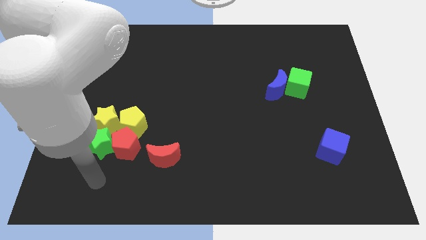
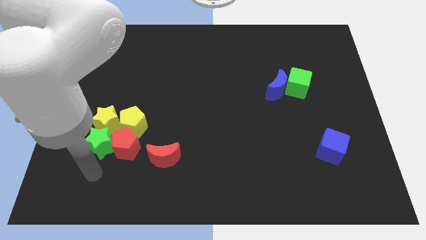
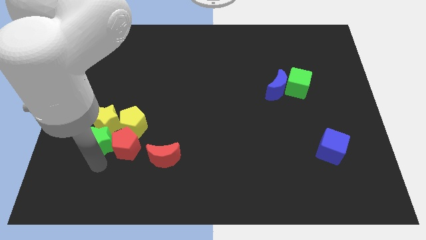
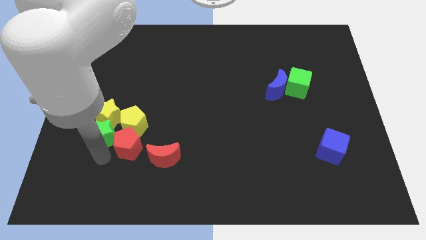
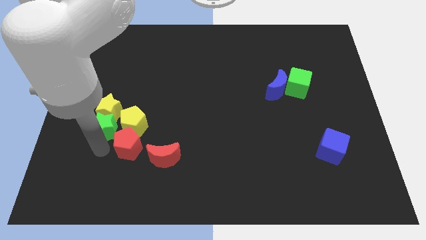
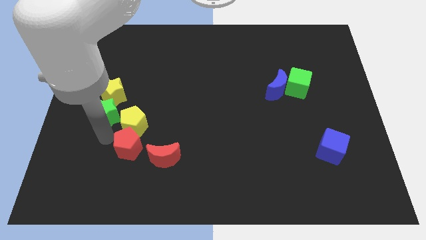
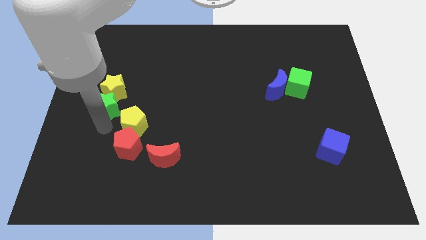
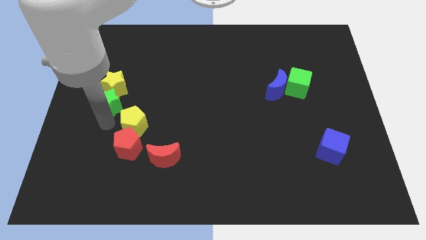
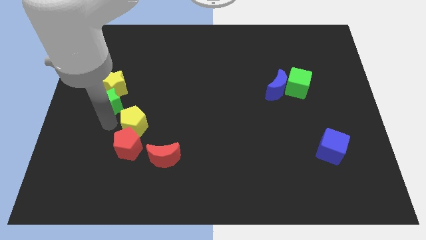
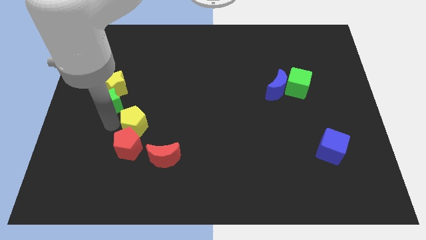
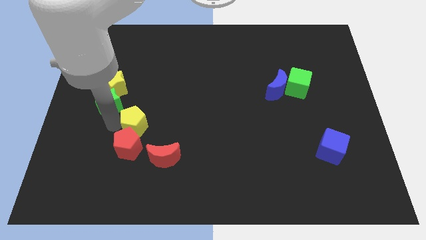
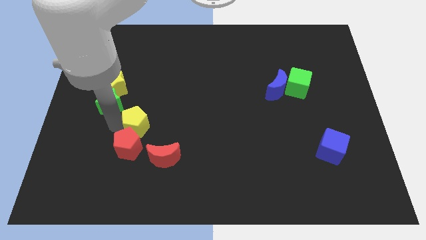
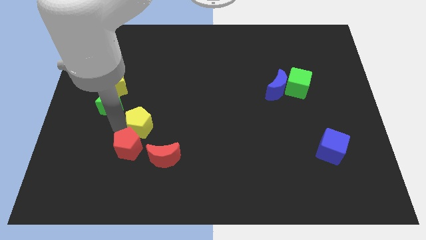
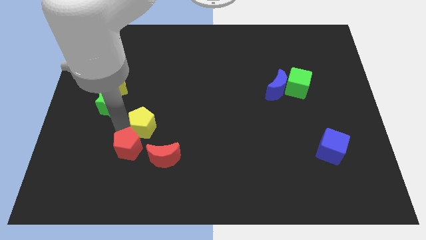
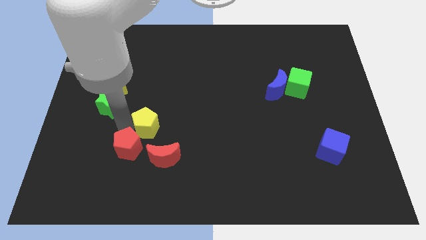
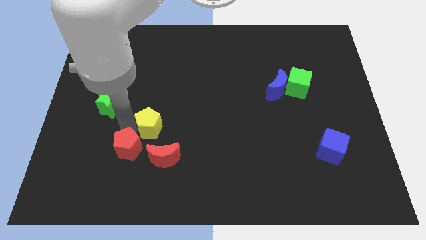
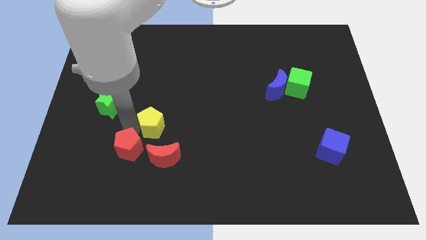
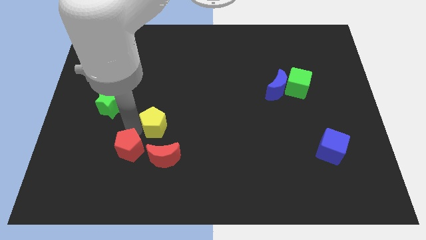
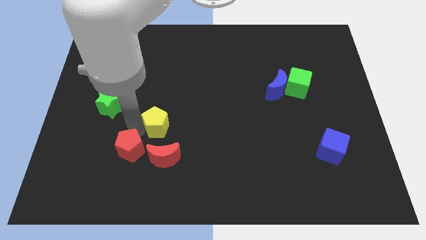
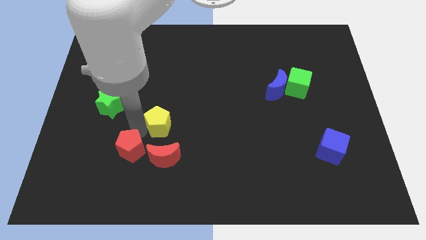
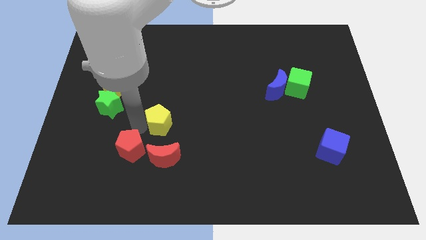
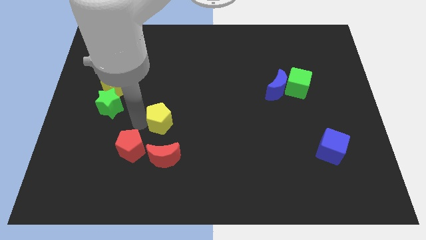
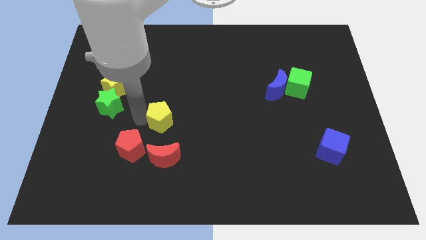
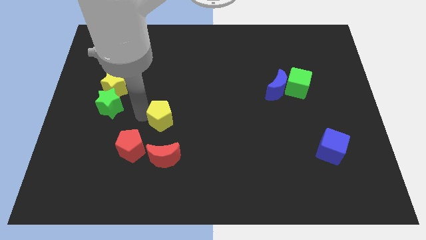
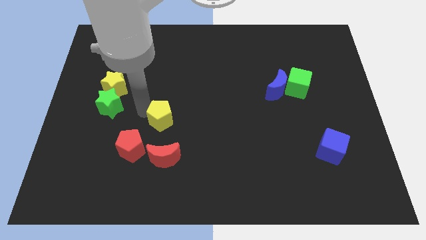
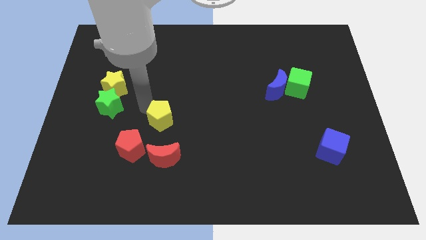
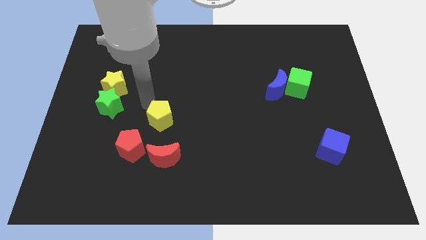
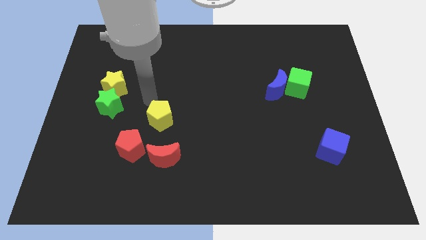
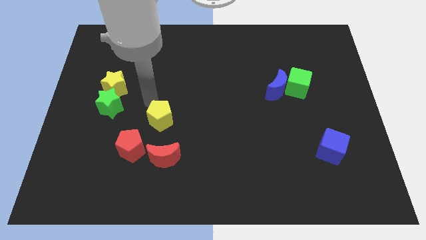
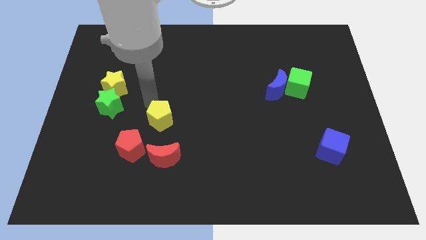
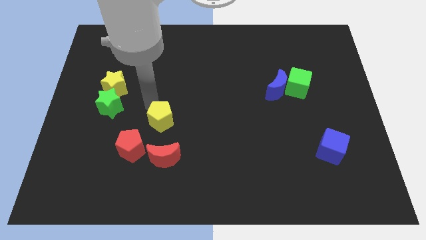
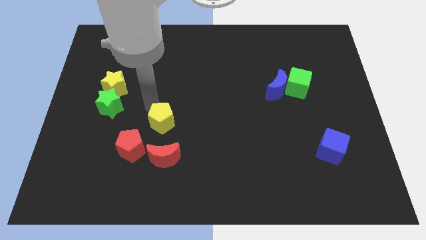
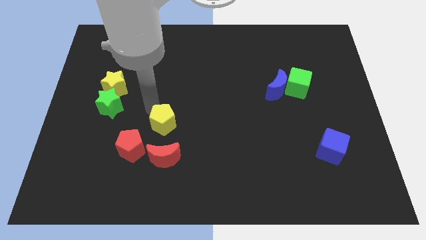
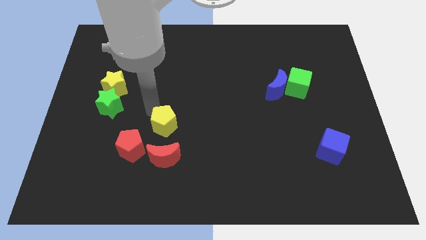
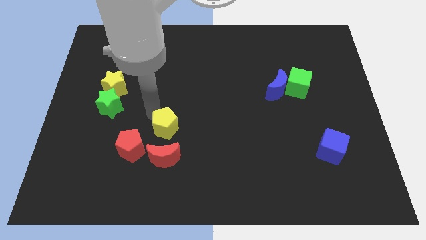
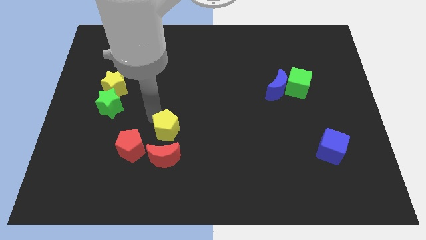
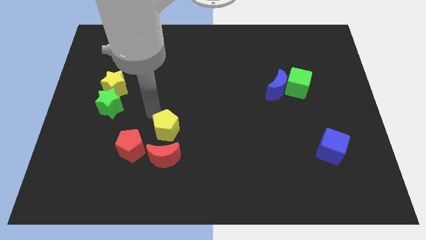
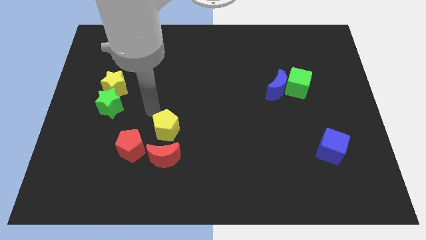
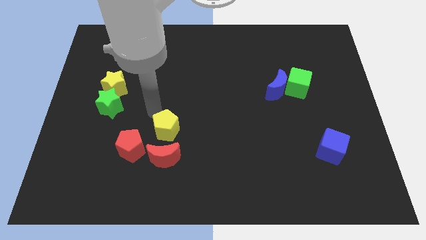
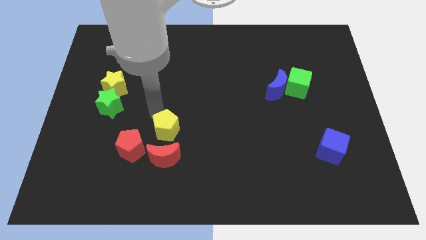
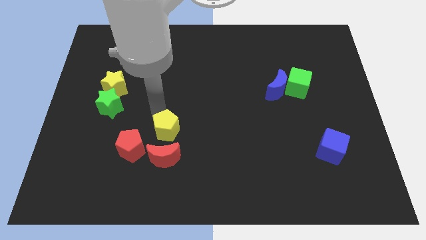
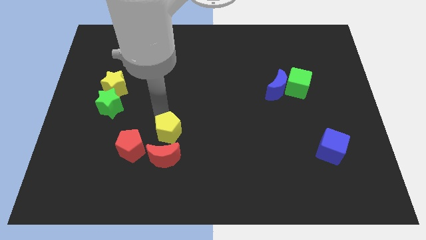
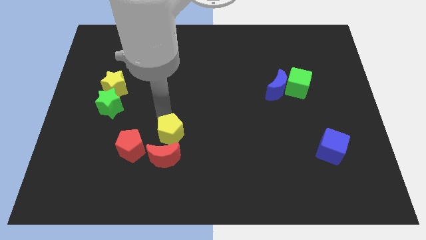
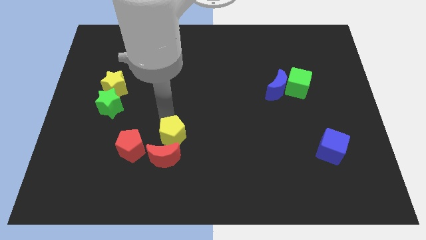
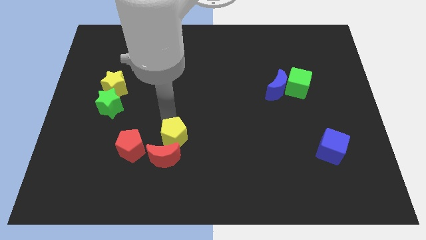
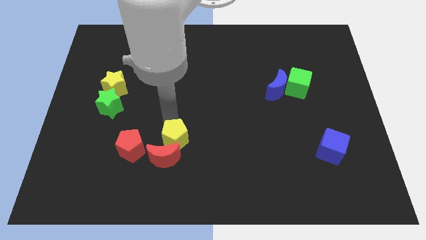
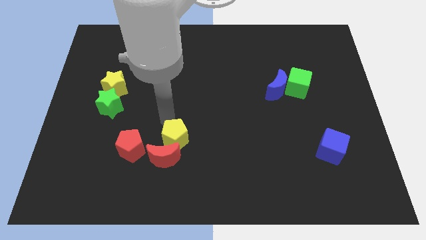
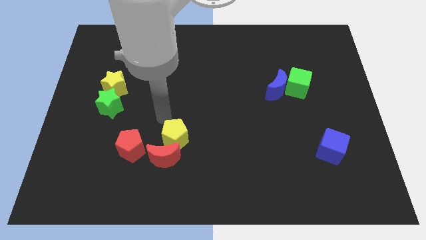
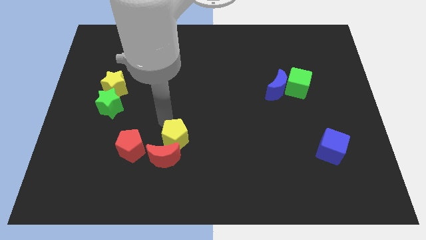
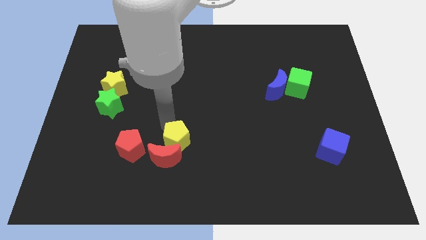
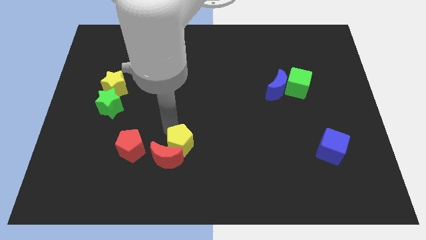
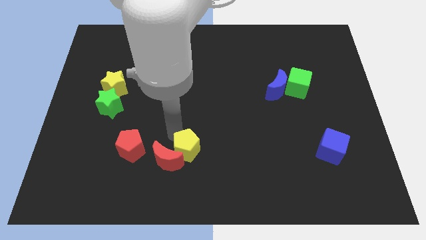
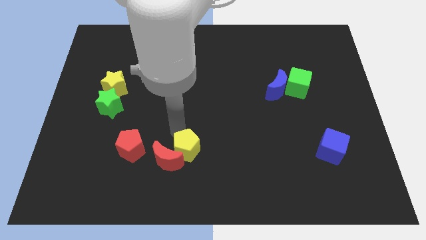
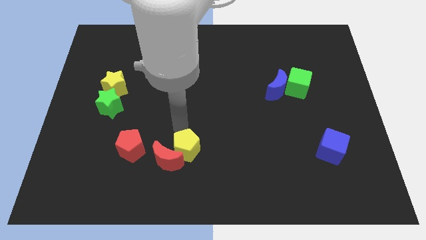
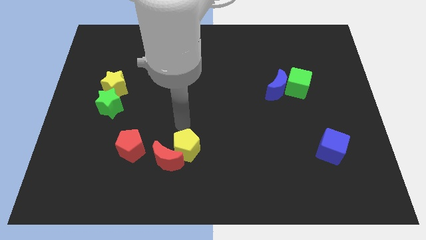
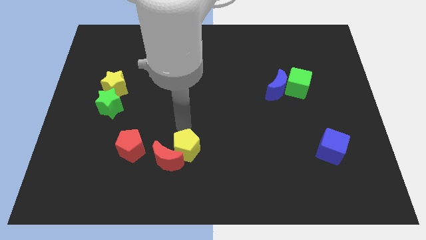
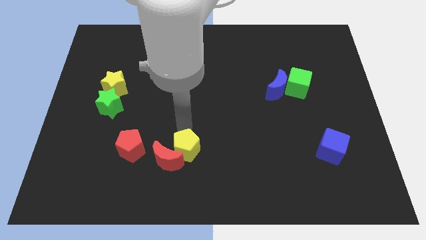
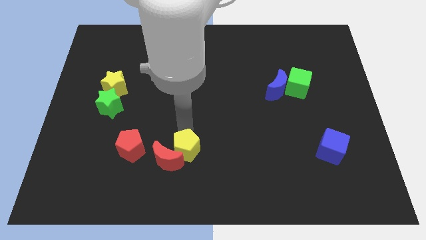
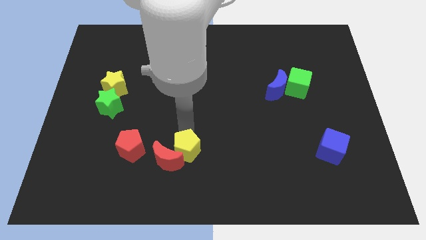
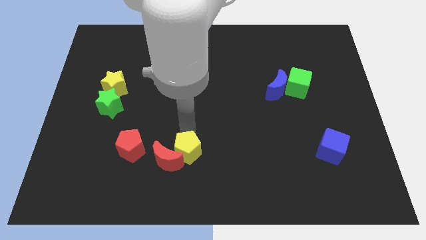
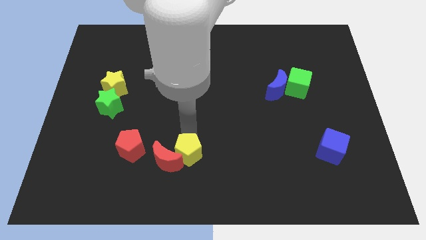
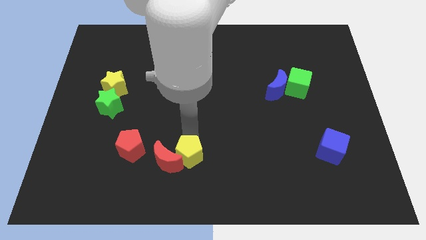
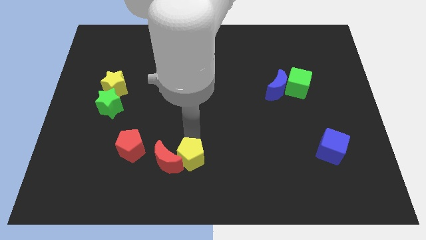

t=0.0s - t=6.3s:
move the yellow pentagon to the bottom
